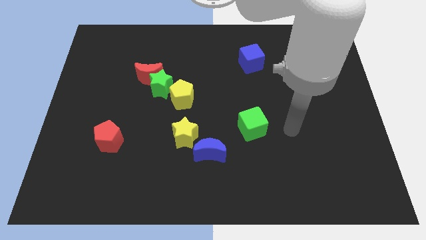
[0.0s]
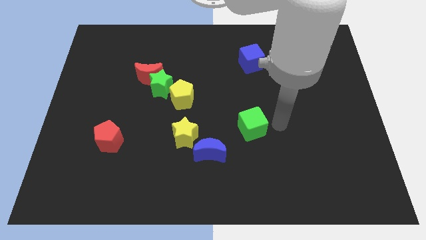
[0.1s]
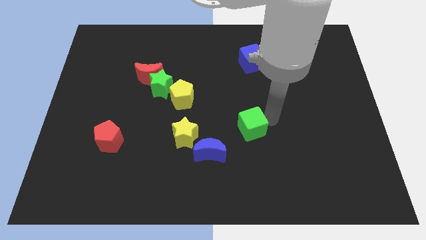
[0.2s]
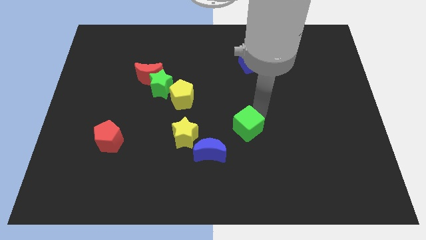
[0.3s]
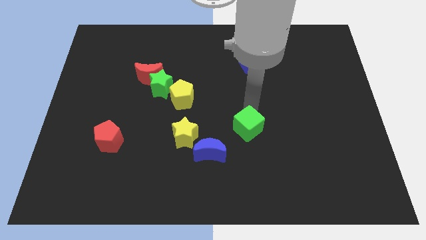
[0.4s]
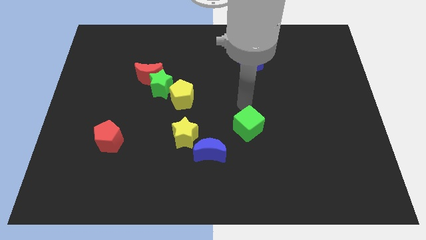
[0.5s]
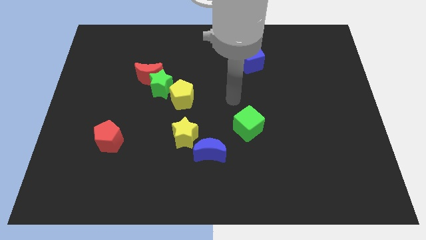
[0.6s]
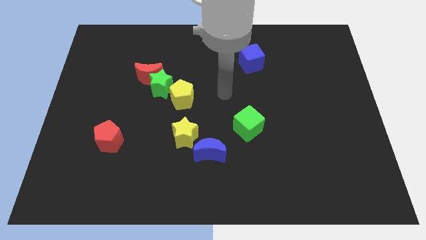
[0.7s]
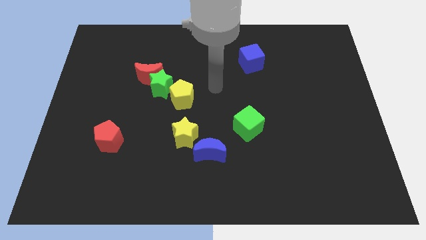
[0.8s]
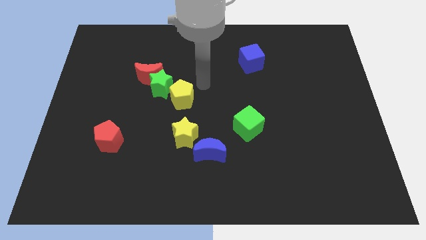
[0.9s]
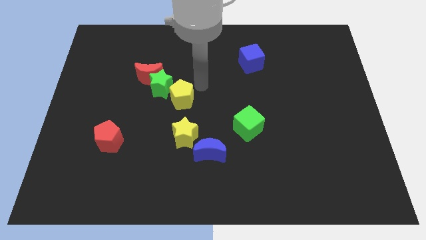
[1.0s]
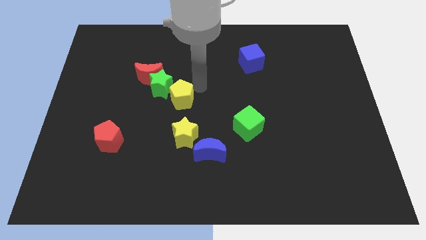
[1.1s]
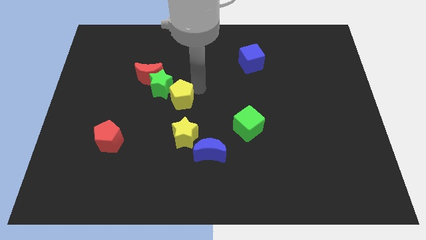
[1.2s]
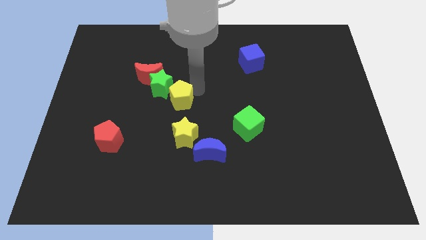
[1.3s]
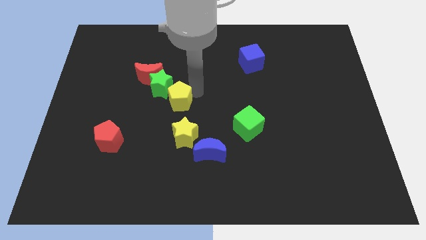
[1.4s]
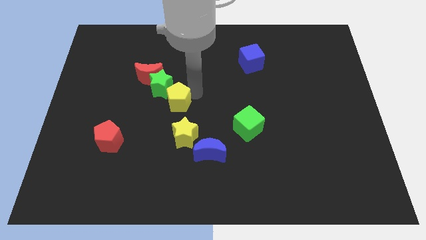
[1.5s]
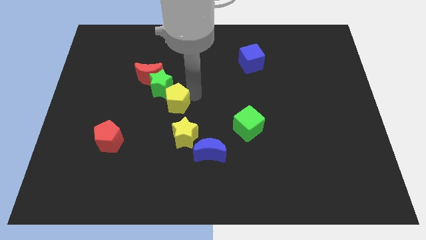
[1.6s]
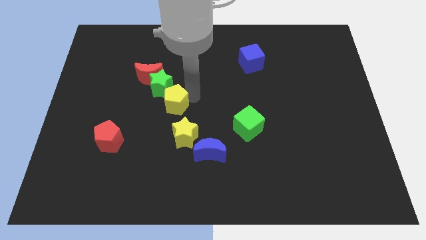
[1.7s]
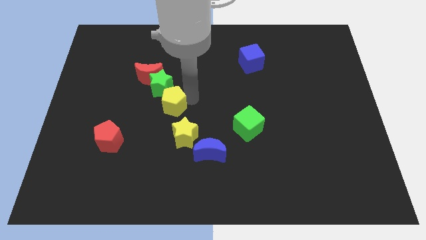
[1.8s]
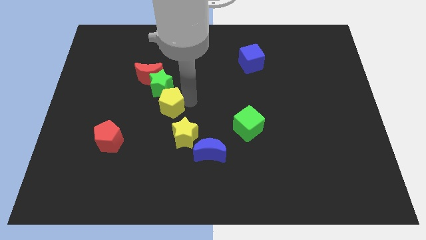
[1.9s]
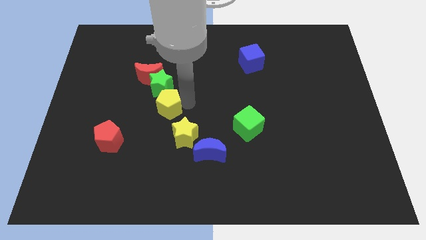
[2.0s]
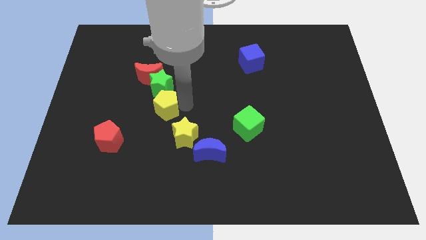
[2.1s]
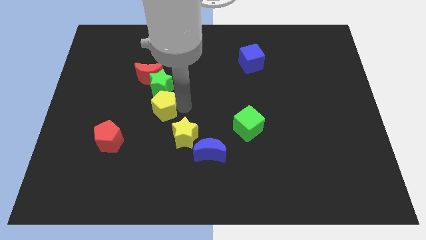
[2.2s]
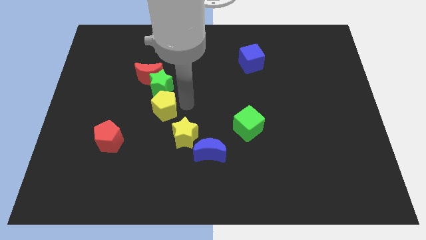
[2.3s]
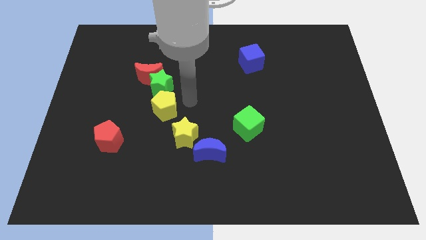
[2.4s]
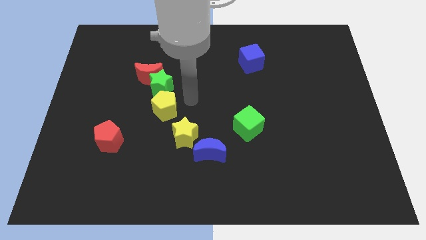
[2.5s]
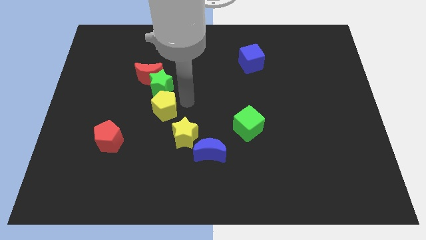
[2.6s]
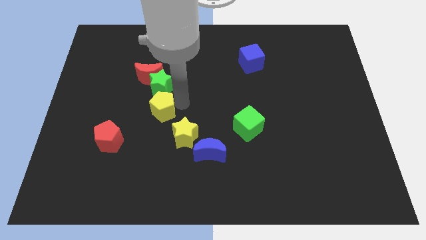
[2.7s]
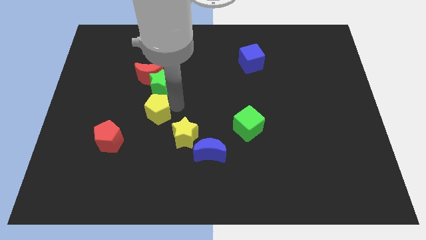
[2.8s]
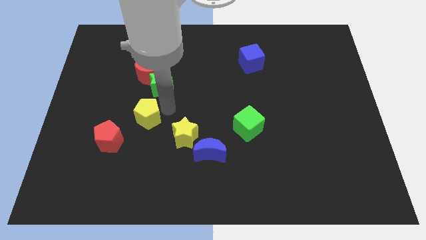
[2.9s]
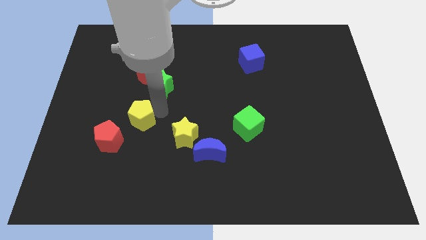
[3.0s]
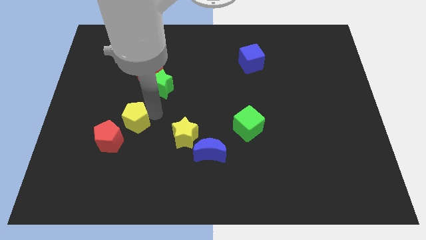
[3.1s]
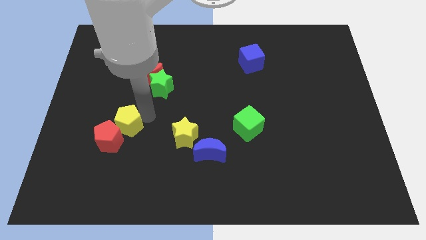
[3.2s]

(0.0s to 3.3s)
slide the yellow pentagon towards the red pentagon

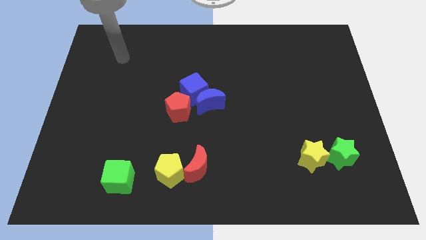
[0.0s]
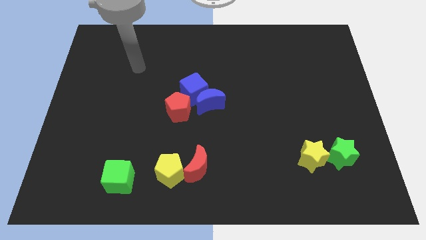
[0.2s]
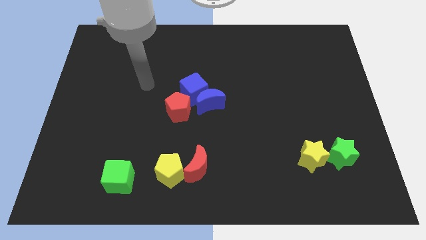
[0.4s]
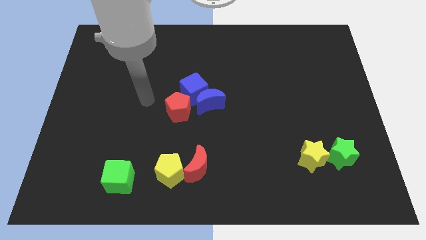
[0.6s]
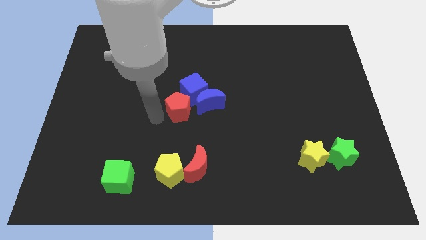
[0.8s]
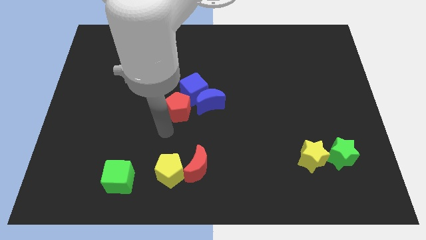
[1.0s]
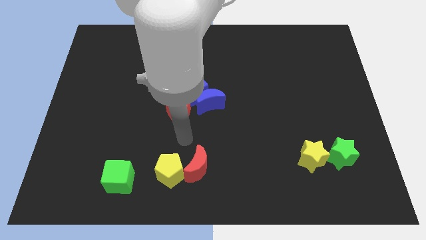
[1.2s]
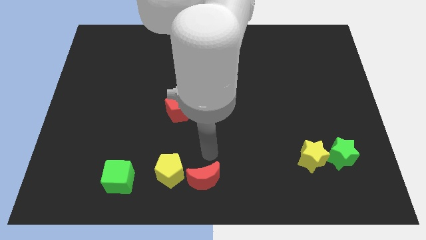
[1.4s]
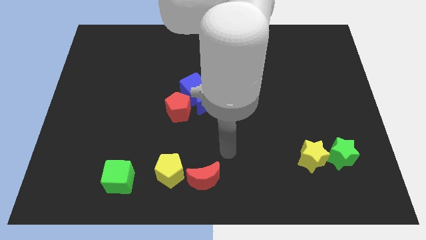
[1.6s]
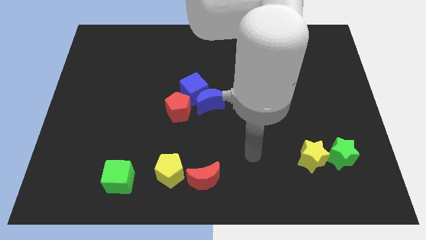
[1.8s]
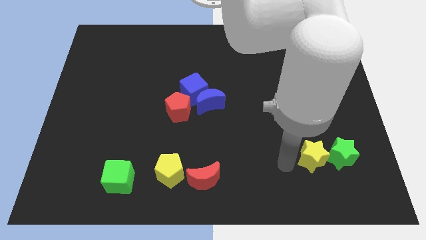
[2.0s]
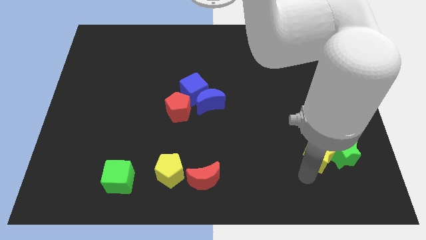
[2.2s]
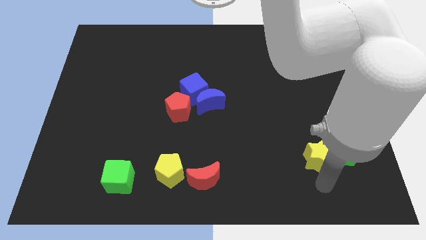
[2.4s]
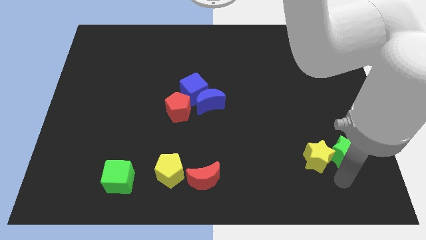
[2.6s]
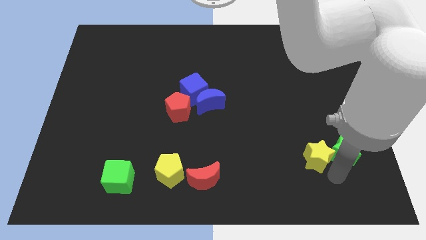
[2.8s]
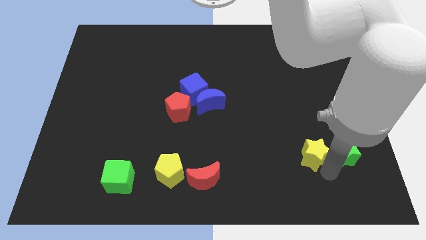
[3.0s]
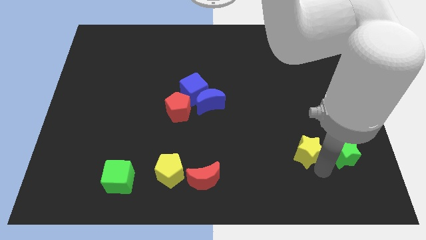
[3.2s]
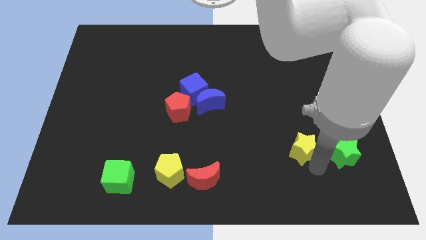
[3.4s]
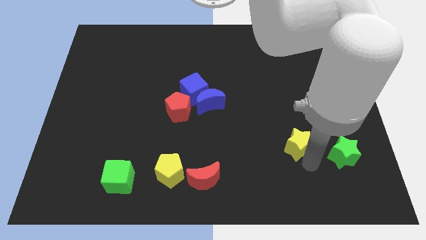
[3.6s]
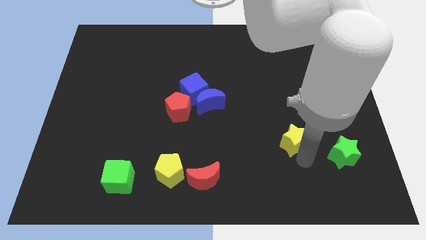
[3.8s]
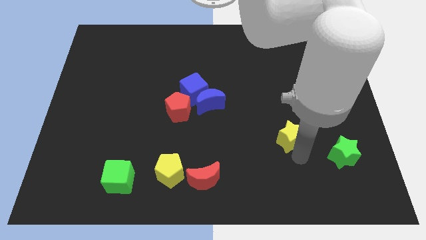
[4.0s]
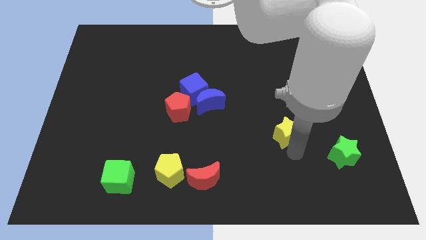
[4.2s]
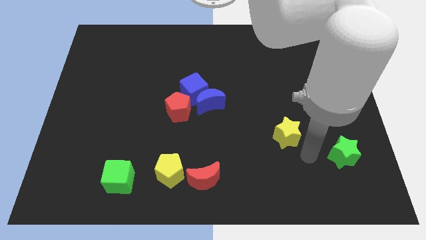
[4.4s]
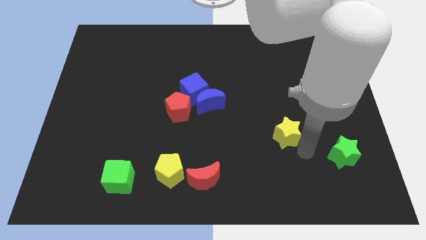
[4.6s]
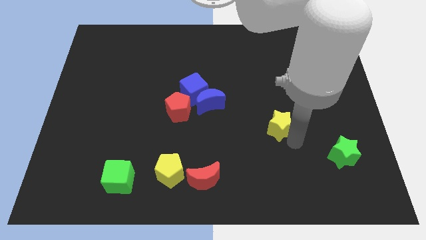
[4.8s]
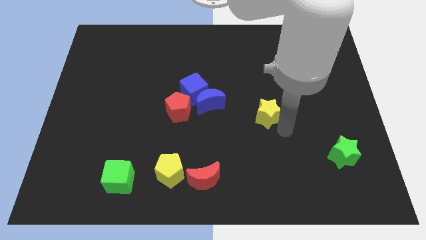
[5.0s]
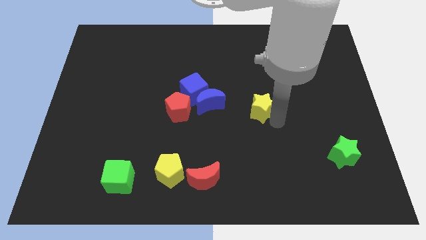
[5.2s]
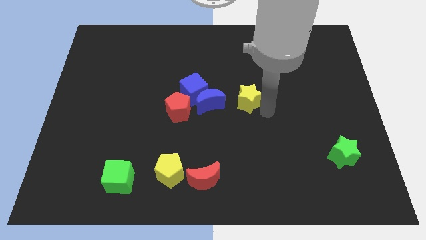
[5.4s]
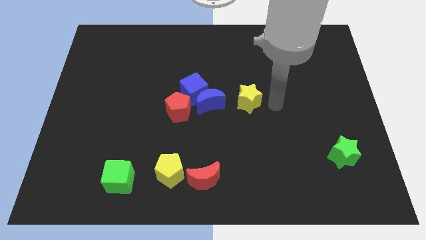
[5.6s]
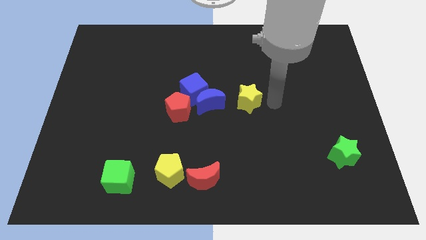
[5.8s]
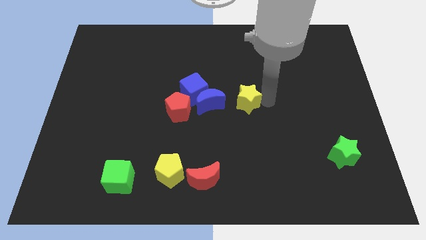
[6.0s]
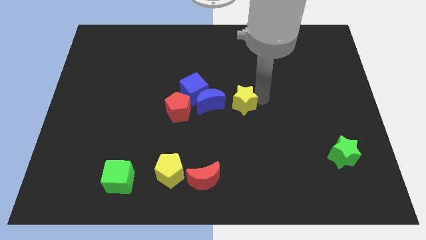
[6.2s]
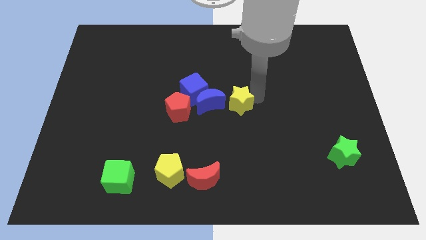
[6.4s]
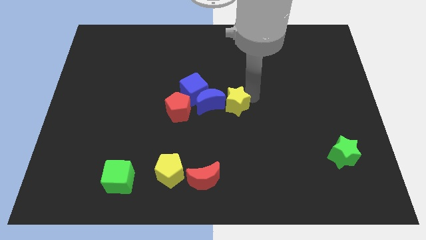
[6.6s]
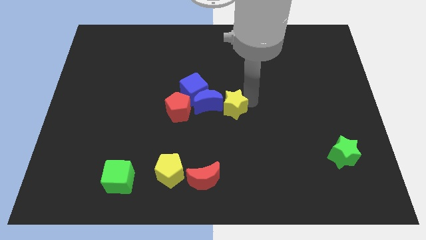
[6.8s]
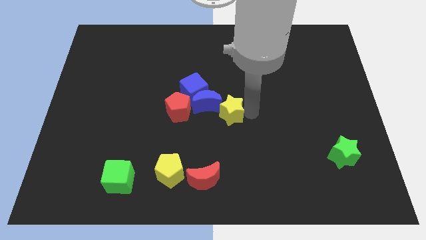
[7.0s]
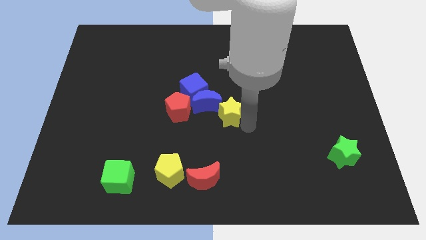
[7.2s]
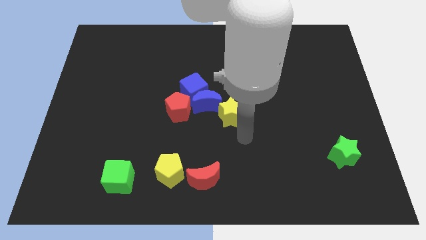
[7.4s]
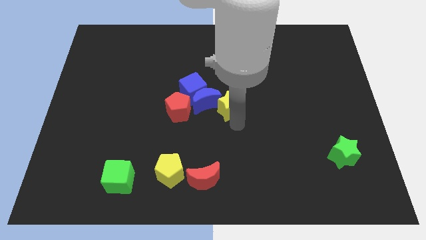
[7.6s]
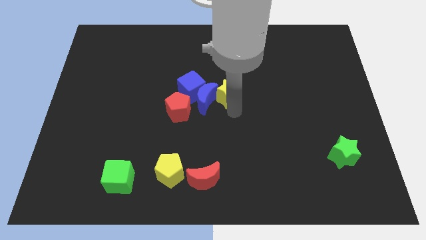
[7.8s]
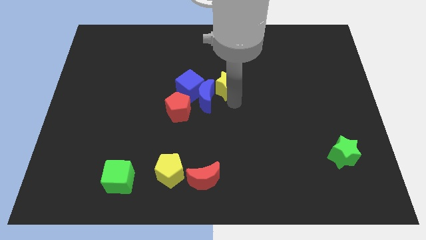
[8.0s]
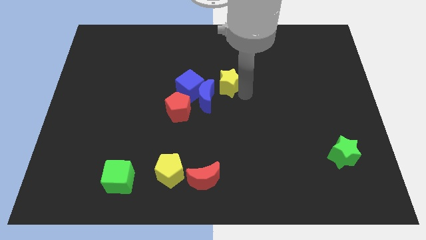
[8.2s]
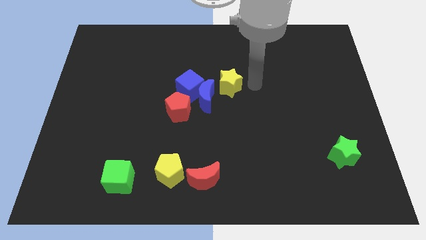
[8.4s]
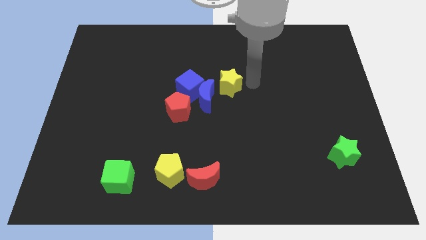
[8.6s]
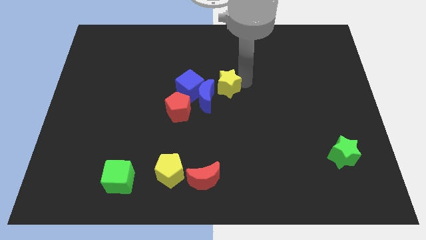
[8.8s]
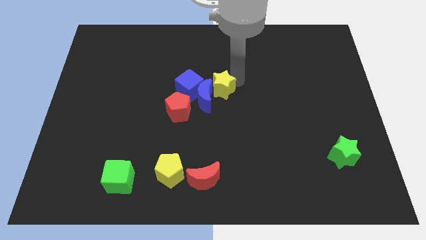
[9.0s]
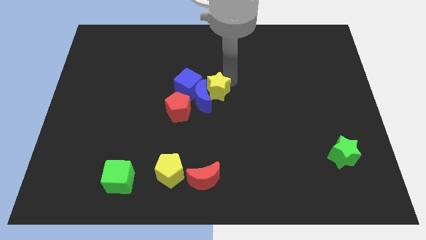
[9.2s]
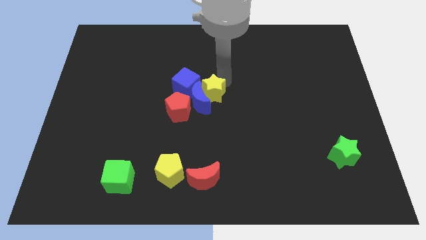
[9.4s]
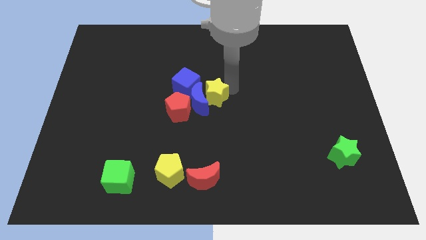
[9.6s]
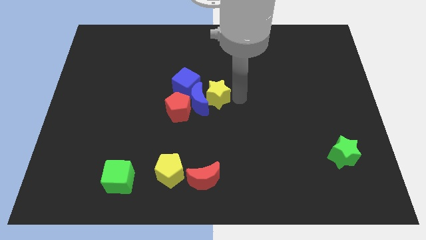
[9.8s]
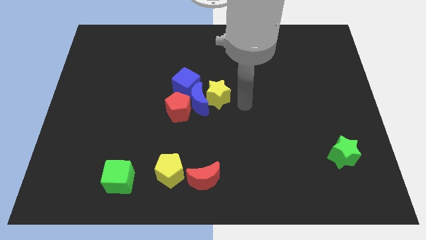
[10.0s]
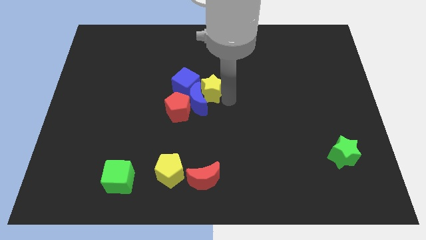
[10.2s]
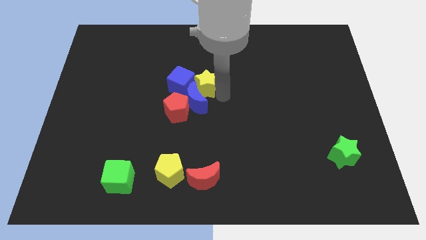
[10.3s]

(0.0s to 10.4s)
move the yellow star towards the blue cube
